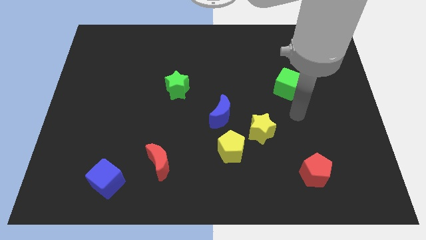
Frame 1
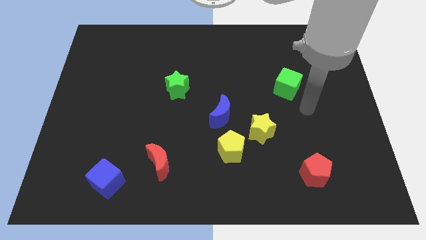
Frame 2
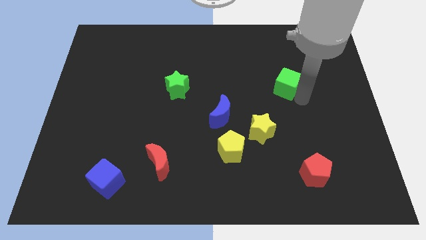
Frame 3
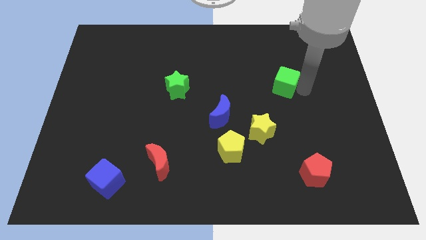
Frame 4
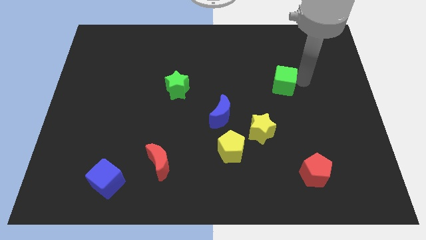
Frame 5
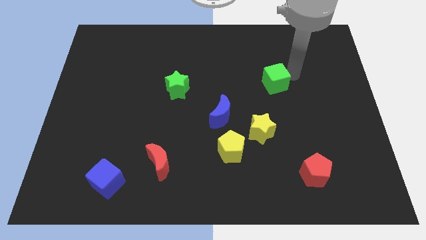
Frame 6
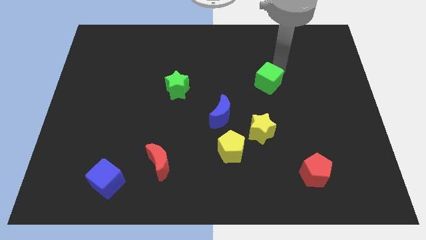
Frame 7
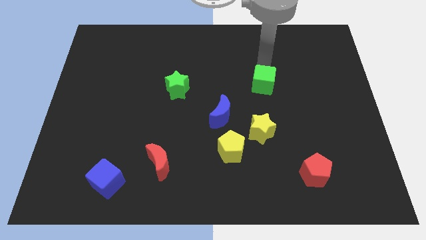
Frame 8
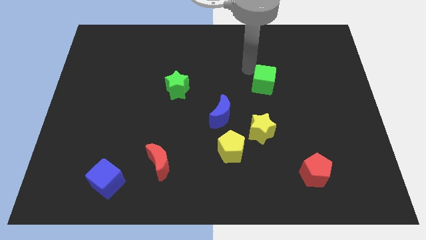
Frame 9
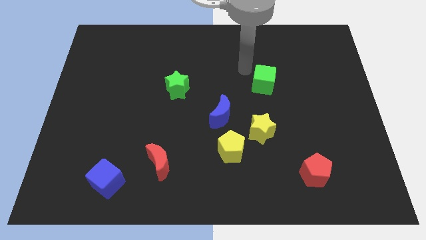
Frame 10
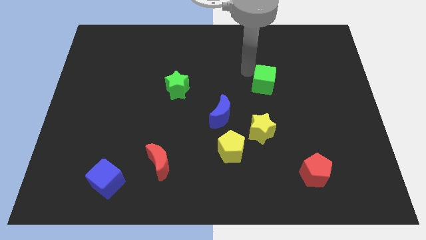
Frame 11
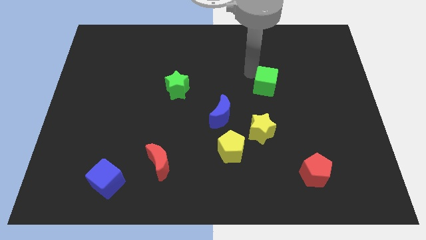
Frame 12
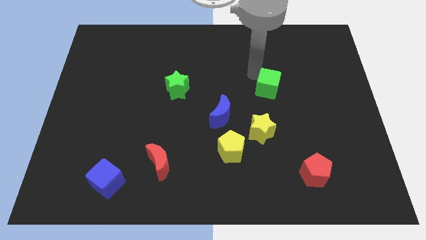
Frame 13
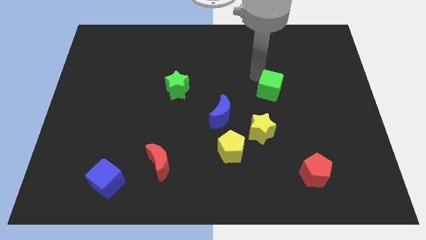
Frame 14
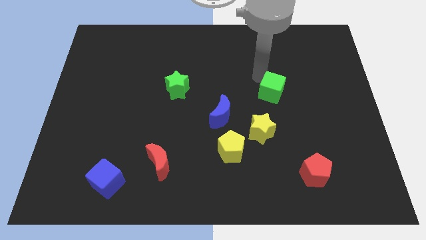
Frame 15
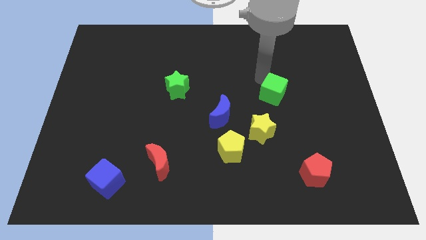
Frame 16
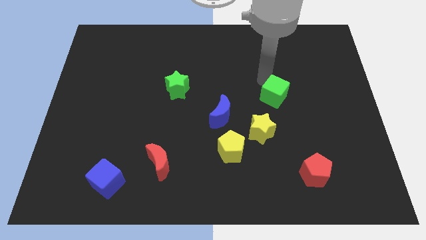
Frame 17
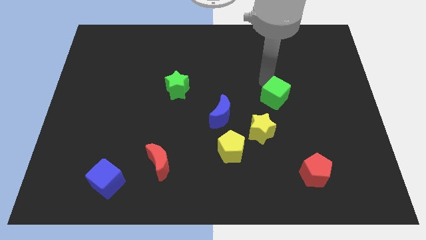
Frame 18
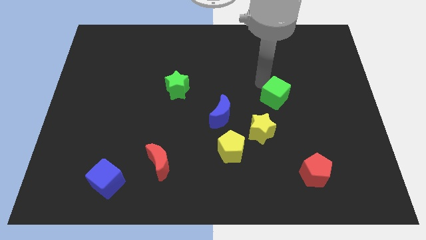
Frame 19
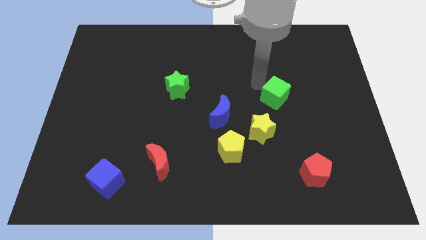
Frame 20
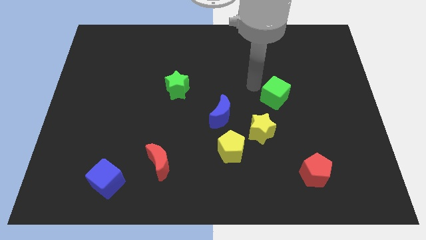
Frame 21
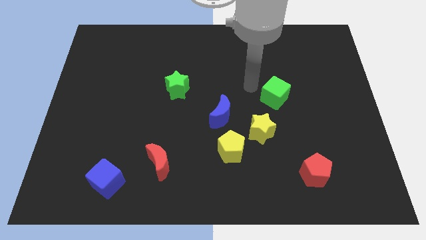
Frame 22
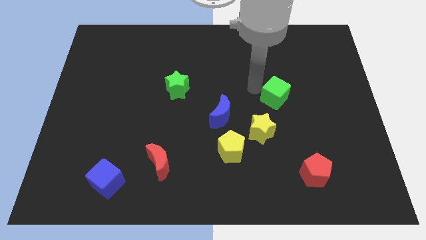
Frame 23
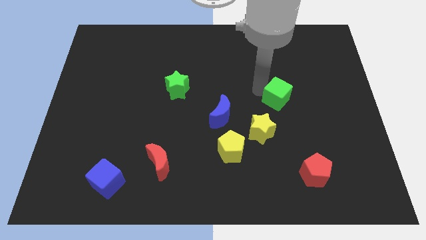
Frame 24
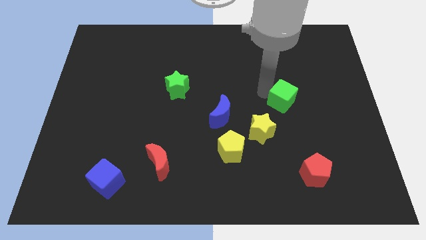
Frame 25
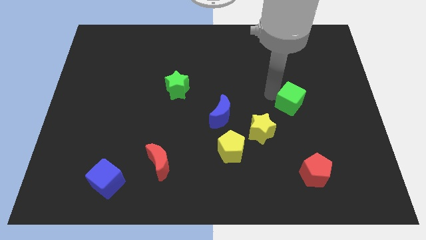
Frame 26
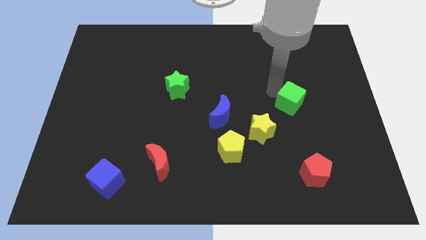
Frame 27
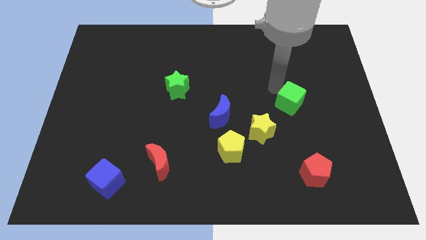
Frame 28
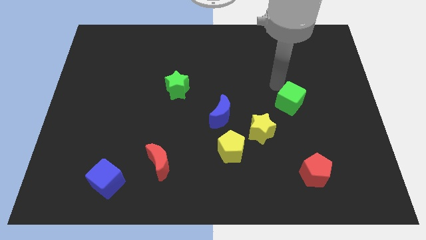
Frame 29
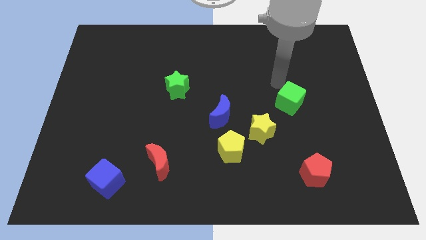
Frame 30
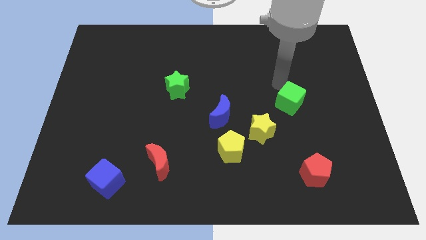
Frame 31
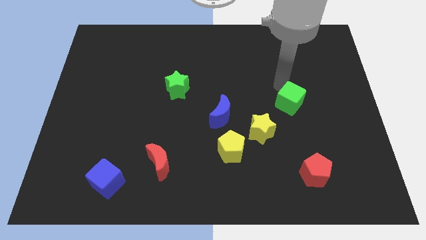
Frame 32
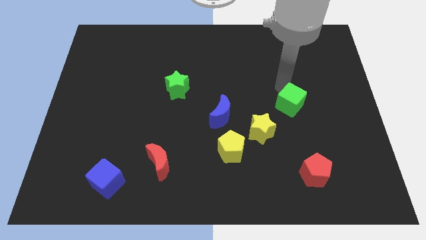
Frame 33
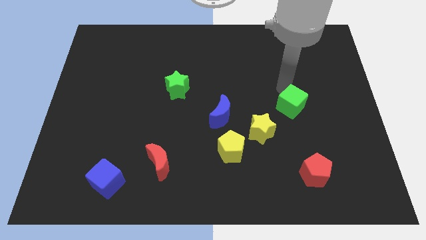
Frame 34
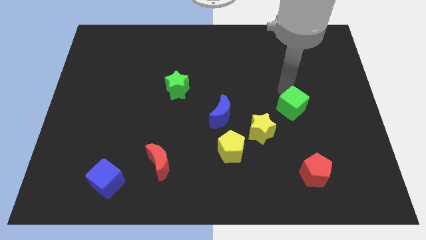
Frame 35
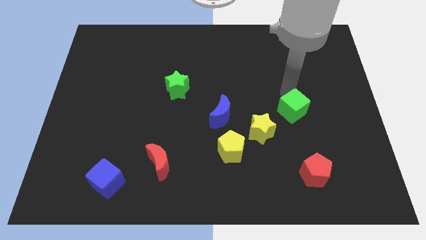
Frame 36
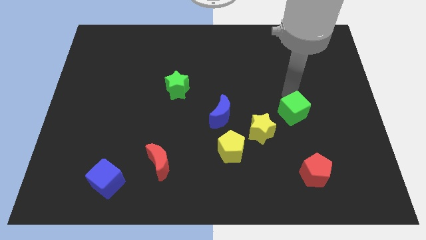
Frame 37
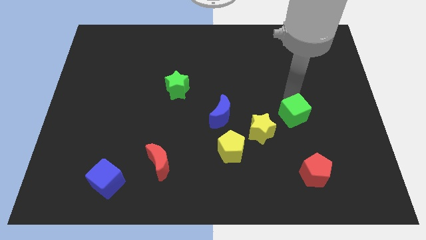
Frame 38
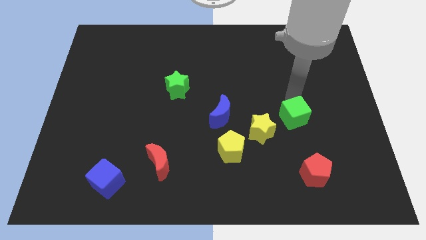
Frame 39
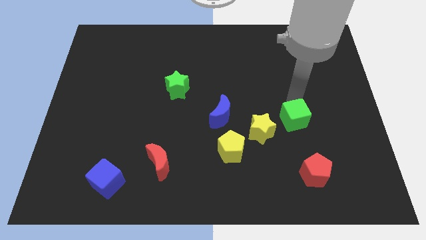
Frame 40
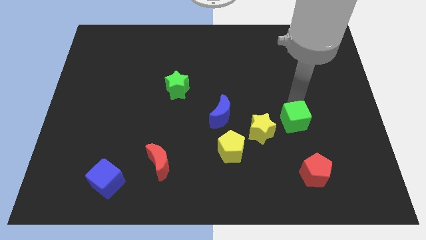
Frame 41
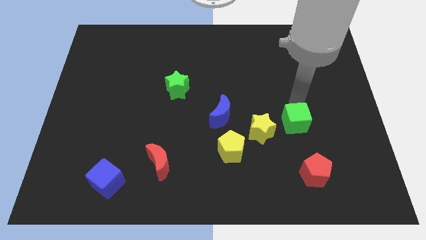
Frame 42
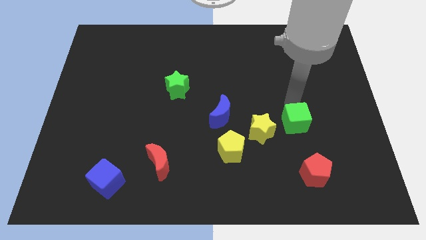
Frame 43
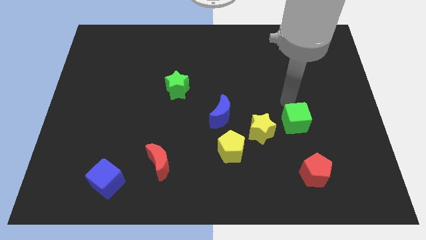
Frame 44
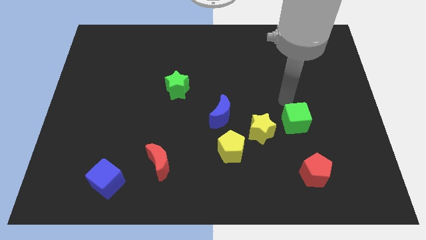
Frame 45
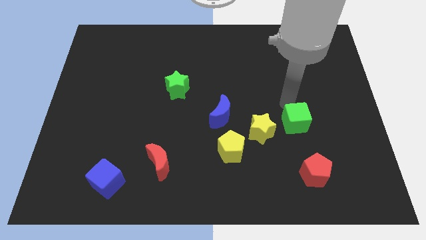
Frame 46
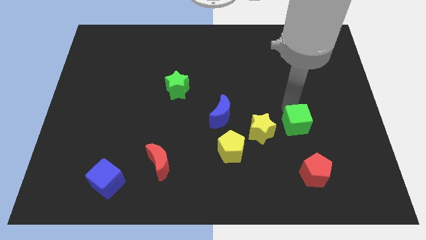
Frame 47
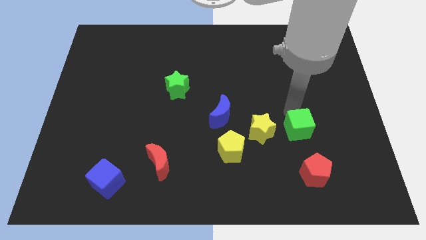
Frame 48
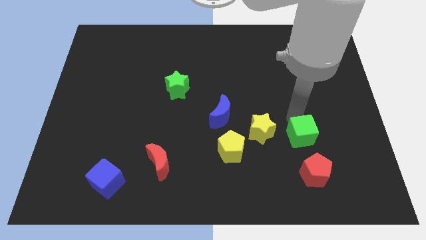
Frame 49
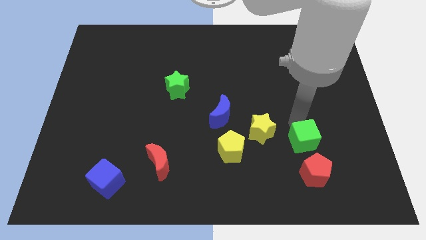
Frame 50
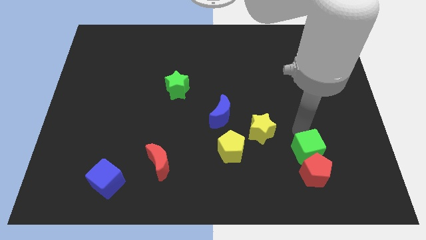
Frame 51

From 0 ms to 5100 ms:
slide the green cube next to the red pentagon
